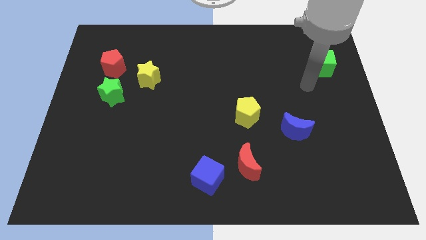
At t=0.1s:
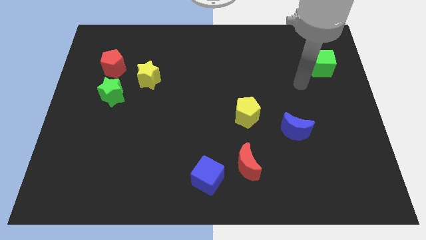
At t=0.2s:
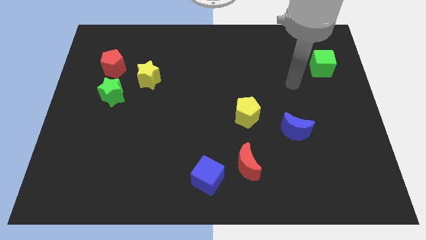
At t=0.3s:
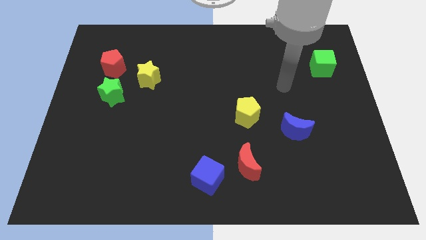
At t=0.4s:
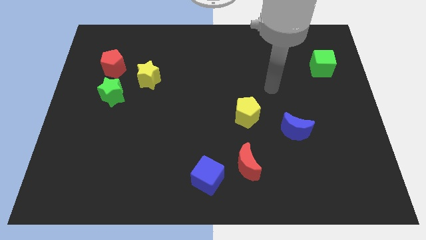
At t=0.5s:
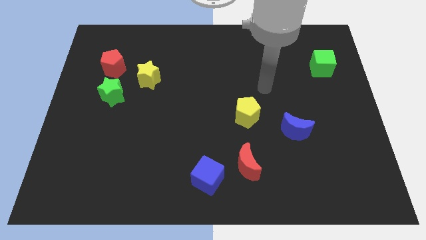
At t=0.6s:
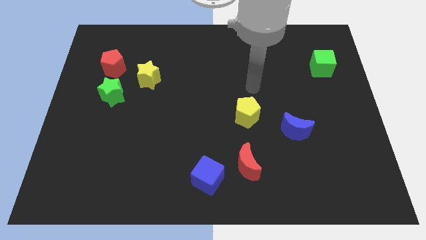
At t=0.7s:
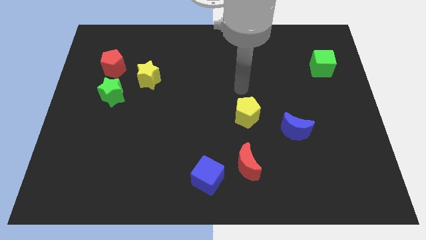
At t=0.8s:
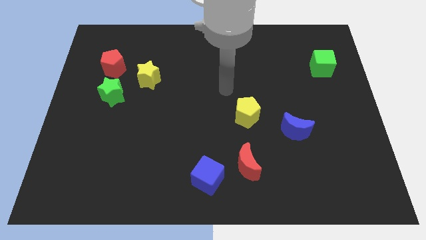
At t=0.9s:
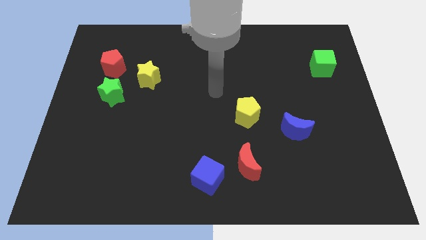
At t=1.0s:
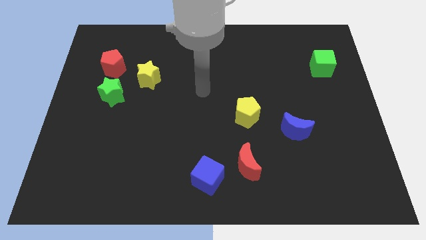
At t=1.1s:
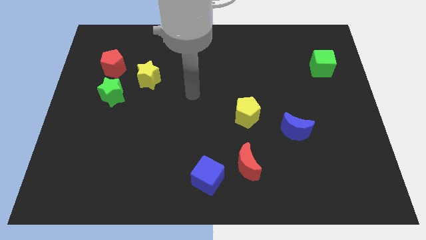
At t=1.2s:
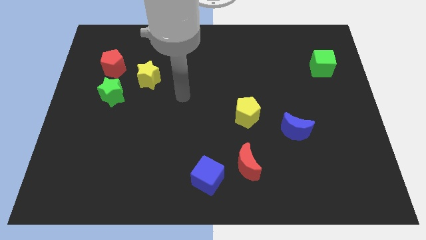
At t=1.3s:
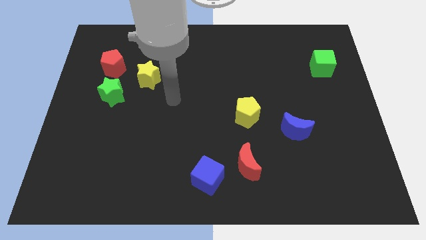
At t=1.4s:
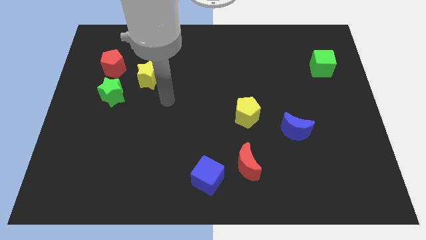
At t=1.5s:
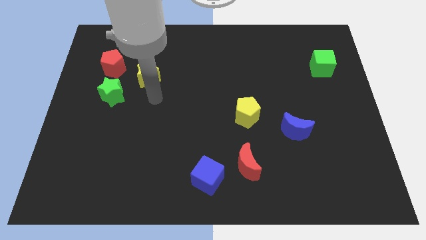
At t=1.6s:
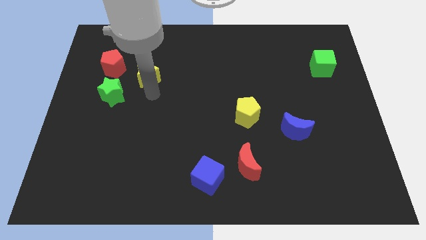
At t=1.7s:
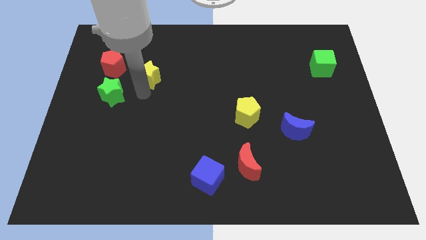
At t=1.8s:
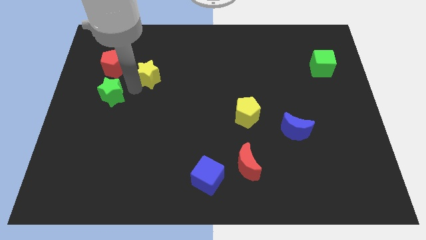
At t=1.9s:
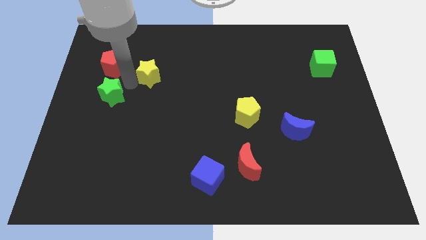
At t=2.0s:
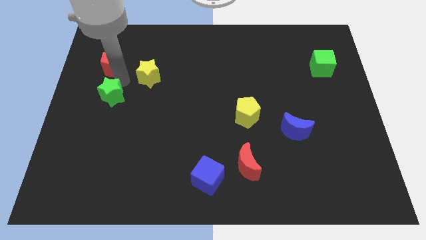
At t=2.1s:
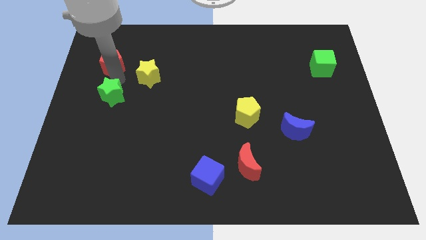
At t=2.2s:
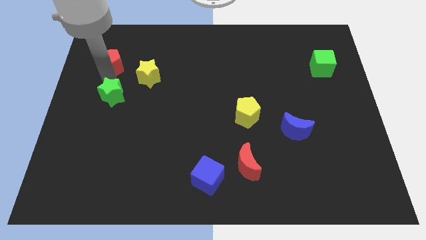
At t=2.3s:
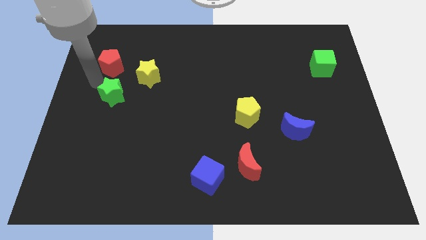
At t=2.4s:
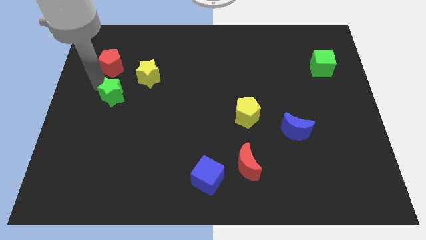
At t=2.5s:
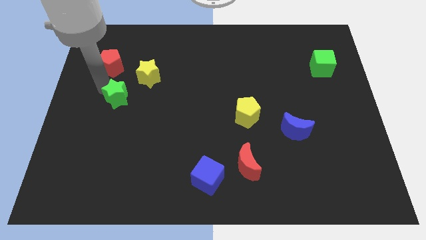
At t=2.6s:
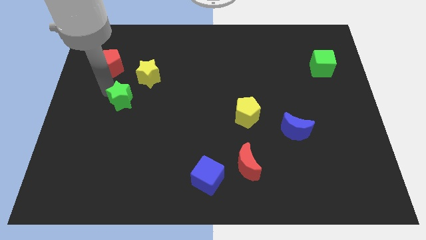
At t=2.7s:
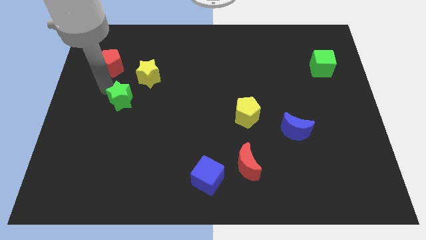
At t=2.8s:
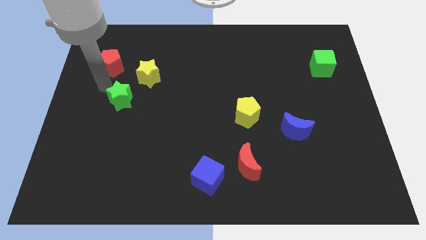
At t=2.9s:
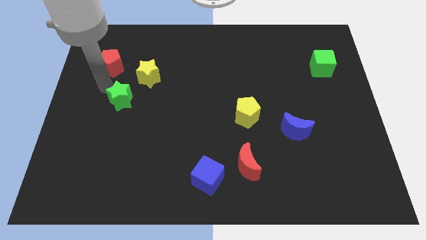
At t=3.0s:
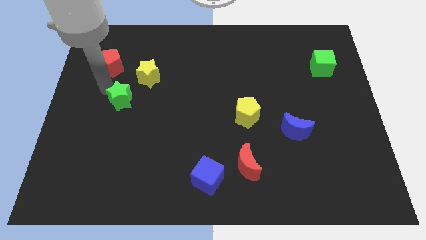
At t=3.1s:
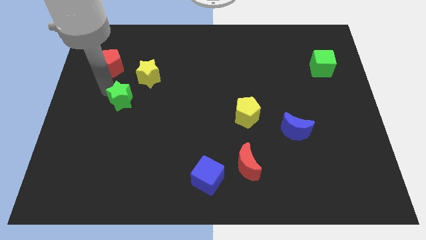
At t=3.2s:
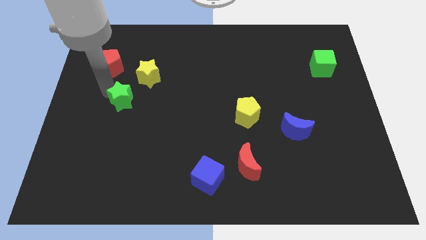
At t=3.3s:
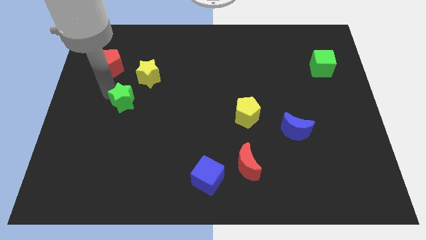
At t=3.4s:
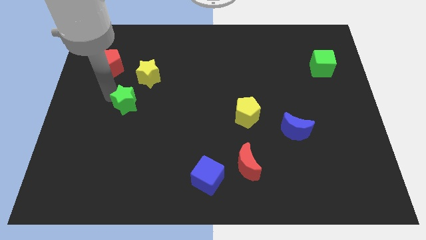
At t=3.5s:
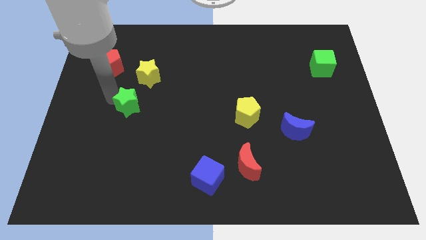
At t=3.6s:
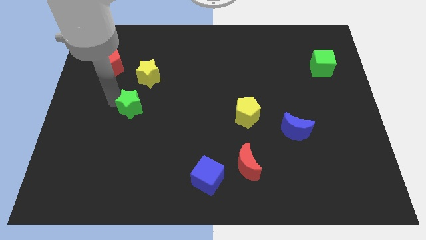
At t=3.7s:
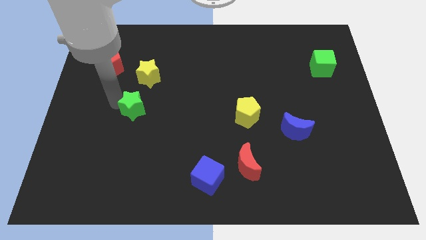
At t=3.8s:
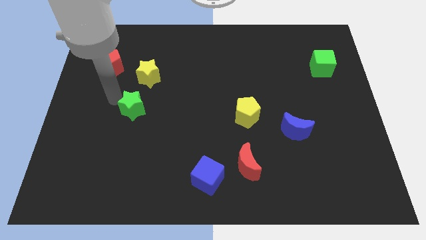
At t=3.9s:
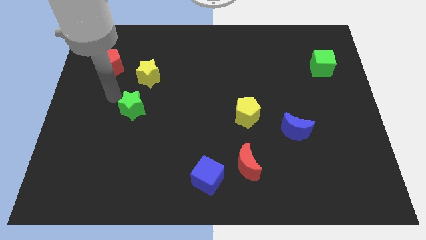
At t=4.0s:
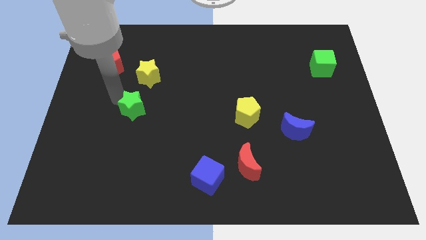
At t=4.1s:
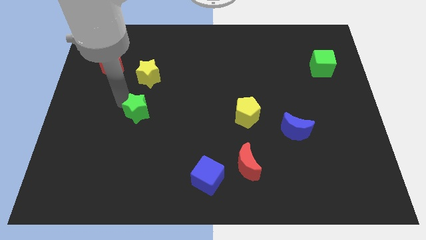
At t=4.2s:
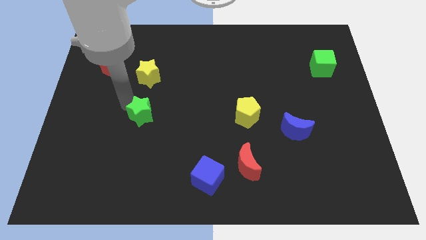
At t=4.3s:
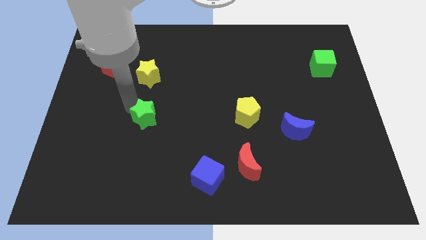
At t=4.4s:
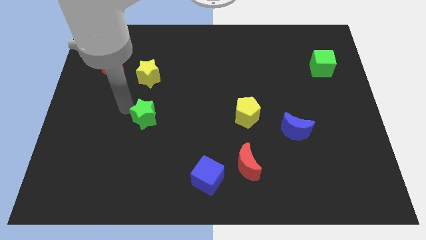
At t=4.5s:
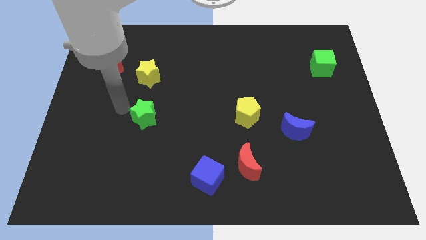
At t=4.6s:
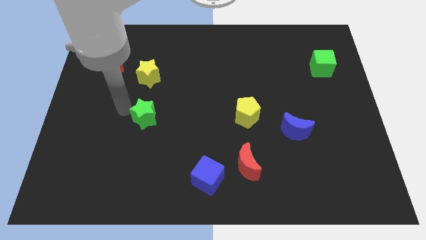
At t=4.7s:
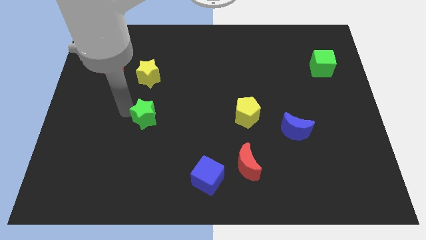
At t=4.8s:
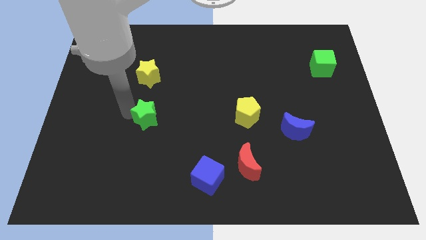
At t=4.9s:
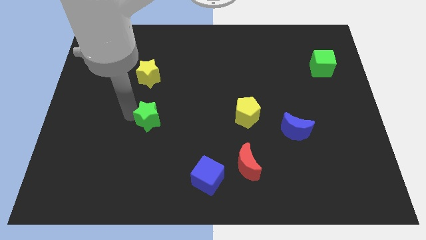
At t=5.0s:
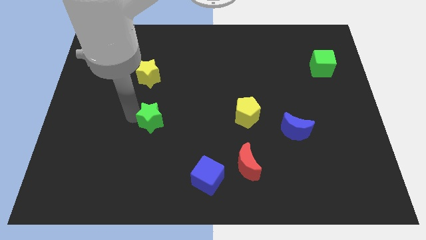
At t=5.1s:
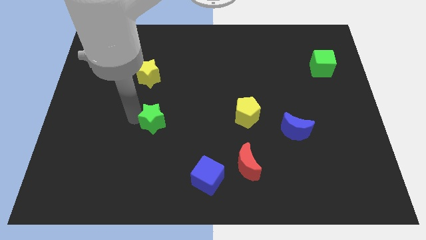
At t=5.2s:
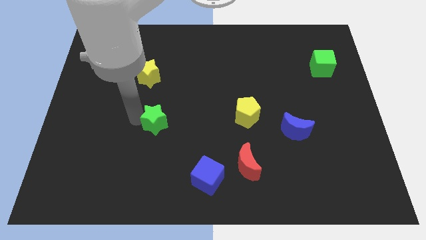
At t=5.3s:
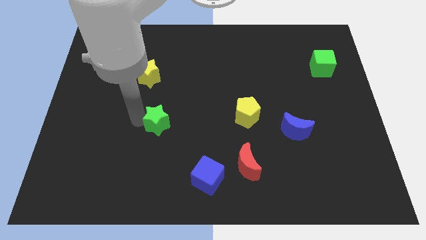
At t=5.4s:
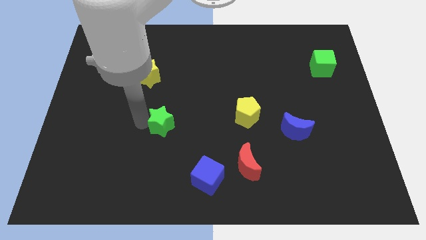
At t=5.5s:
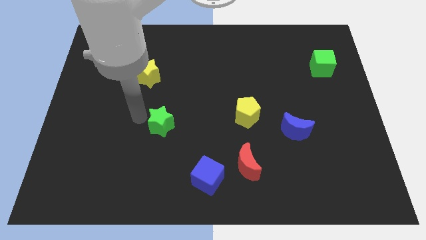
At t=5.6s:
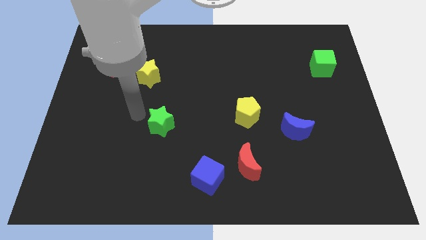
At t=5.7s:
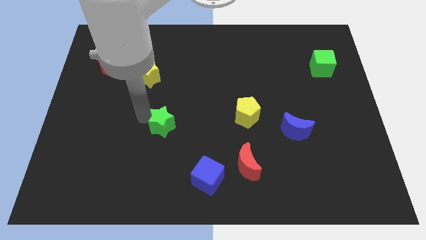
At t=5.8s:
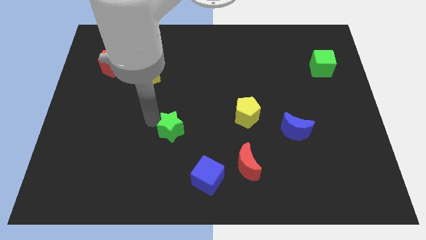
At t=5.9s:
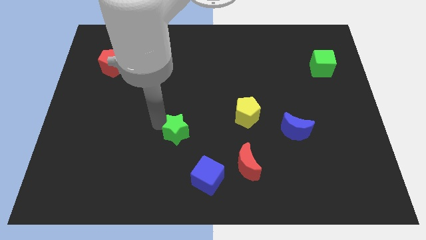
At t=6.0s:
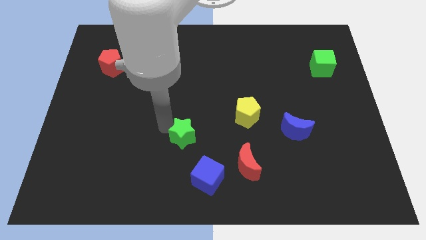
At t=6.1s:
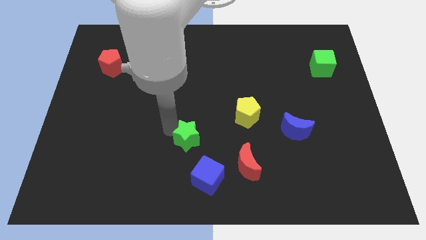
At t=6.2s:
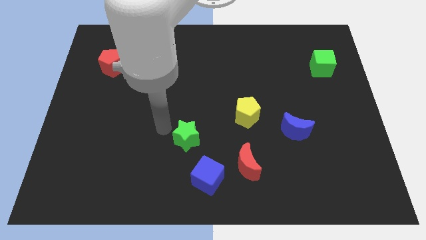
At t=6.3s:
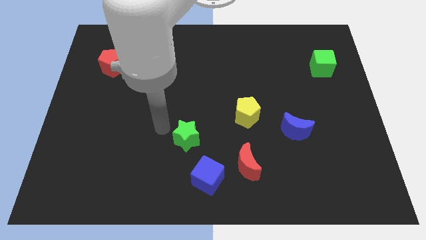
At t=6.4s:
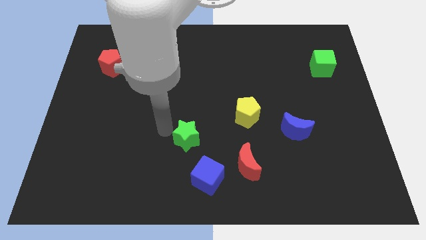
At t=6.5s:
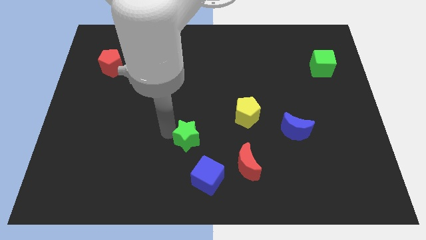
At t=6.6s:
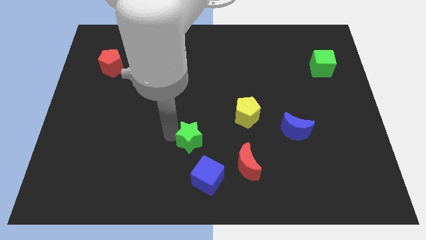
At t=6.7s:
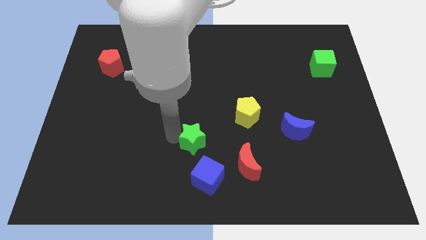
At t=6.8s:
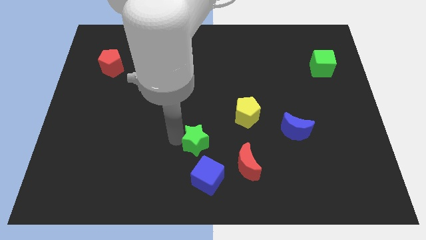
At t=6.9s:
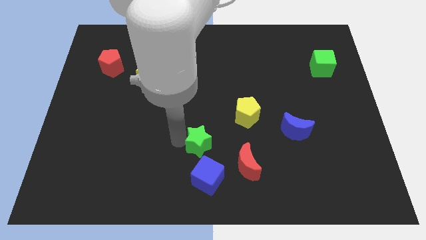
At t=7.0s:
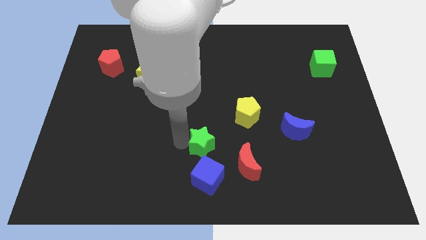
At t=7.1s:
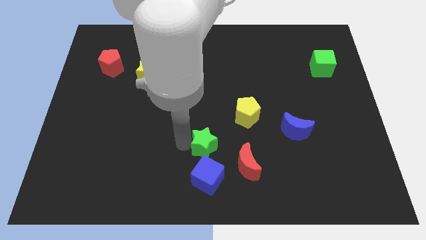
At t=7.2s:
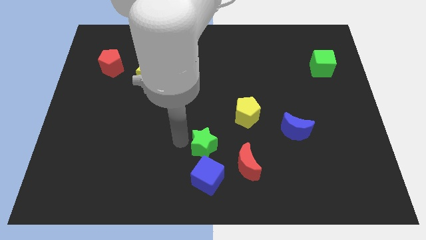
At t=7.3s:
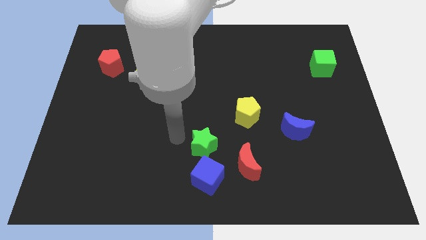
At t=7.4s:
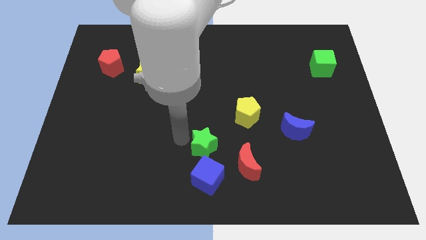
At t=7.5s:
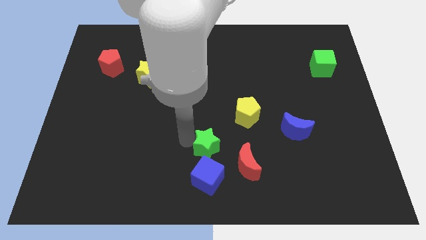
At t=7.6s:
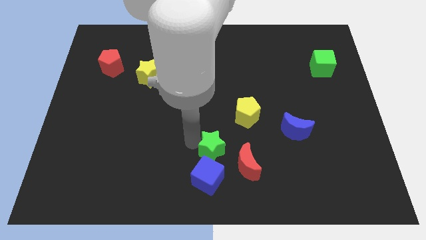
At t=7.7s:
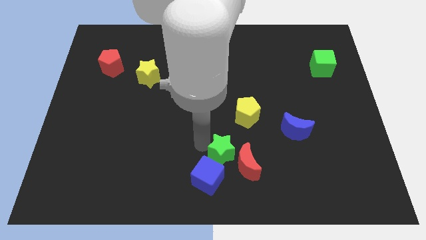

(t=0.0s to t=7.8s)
push the green star next to the red moon
